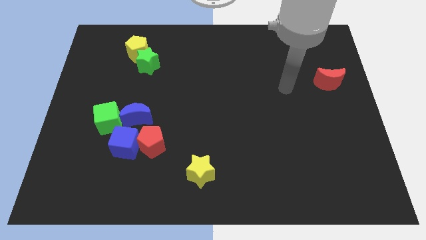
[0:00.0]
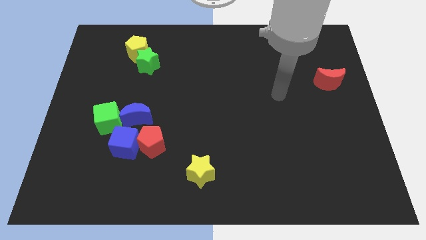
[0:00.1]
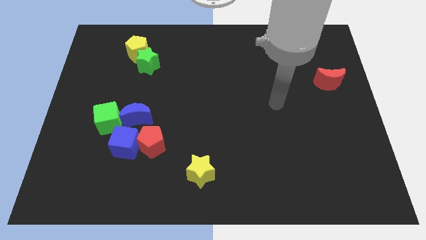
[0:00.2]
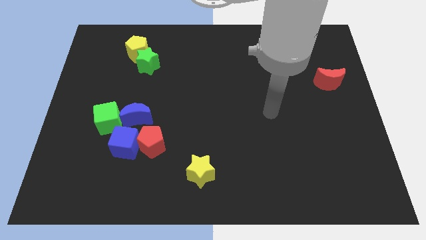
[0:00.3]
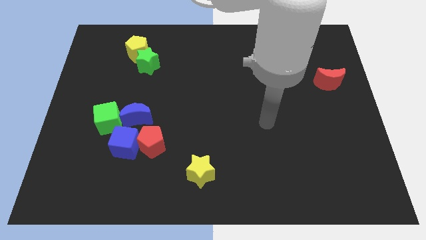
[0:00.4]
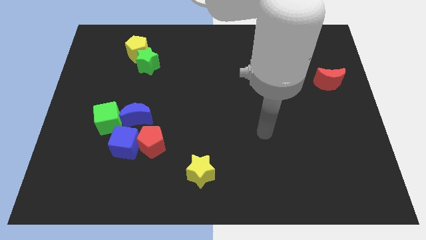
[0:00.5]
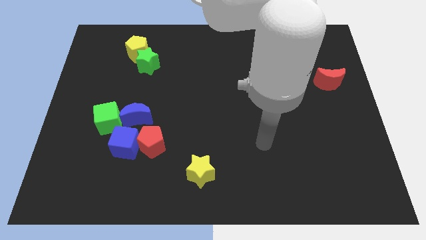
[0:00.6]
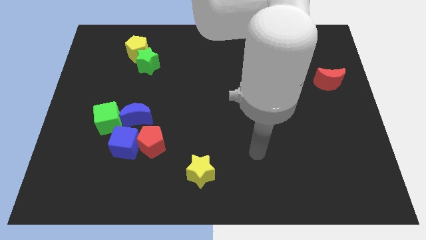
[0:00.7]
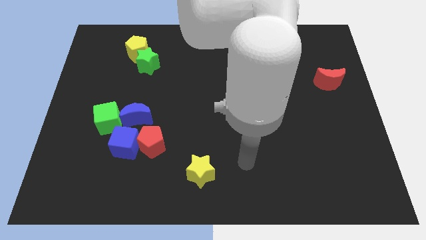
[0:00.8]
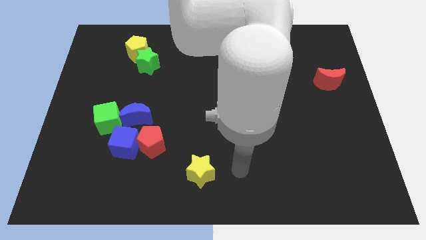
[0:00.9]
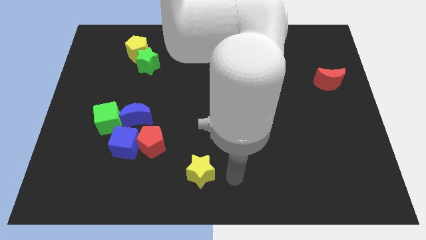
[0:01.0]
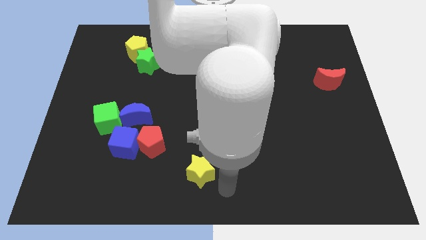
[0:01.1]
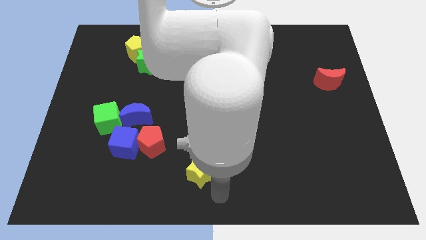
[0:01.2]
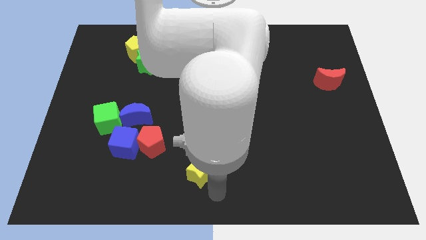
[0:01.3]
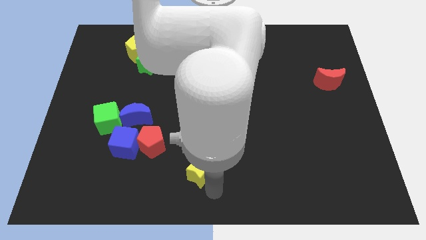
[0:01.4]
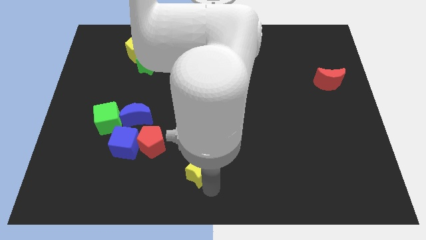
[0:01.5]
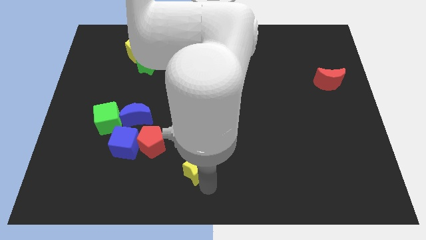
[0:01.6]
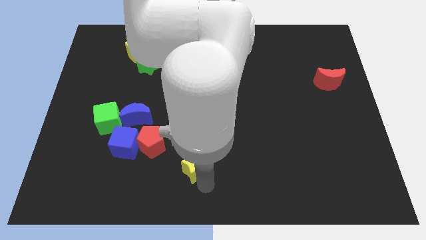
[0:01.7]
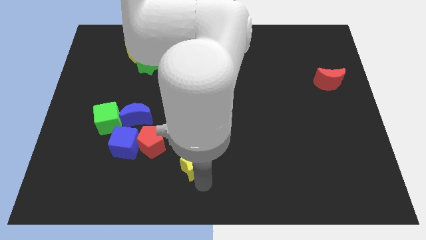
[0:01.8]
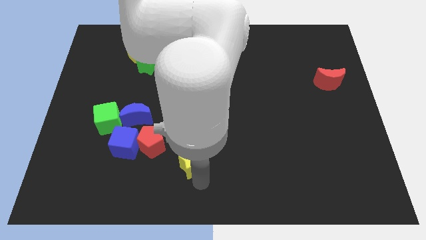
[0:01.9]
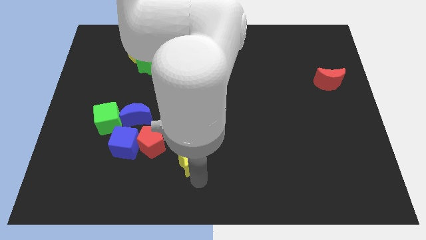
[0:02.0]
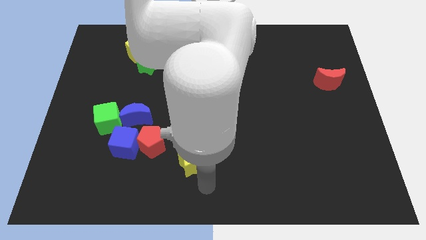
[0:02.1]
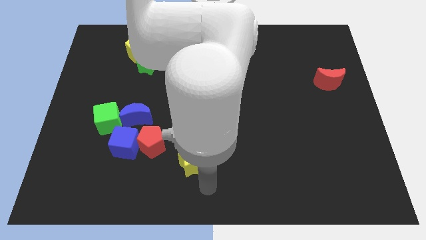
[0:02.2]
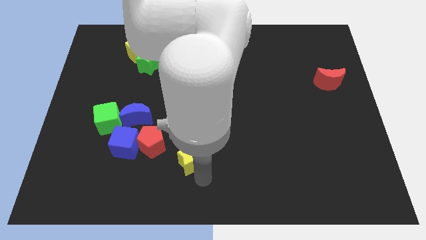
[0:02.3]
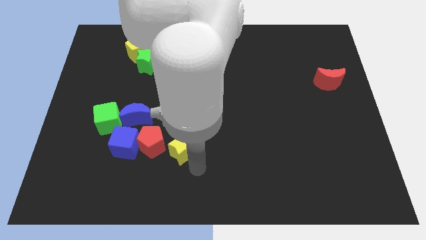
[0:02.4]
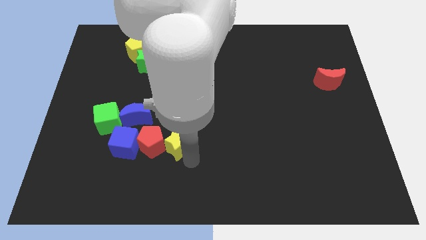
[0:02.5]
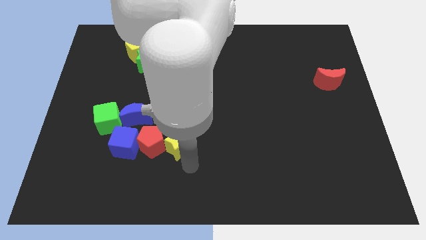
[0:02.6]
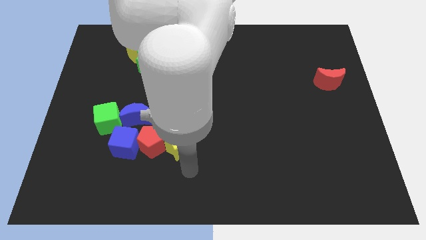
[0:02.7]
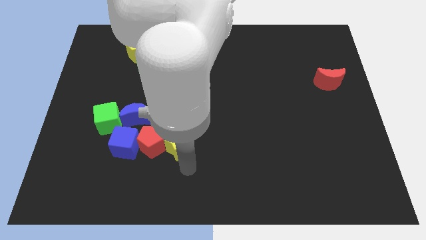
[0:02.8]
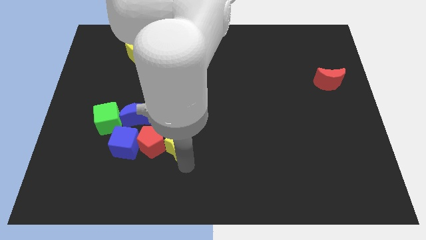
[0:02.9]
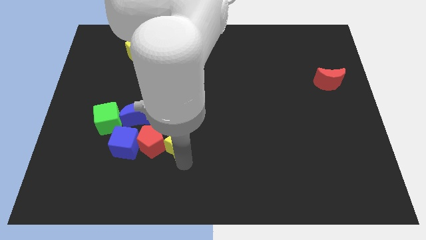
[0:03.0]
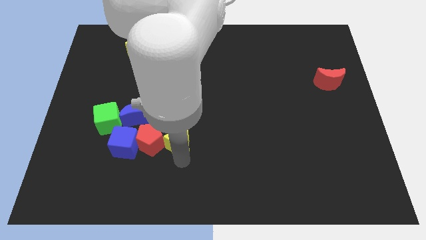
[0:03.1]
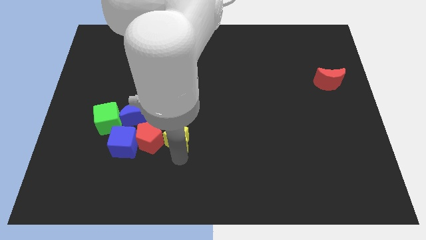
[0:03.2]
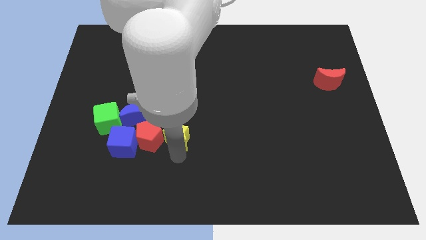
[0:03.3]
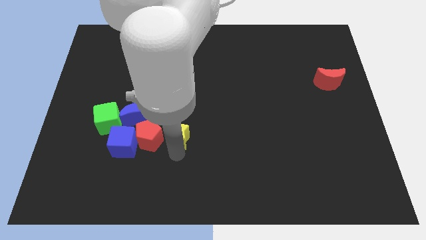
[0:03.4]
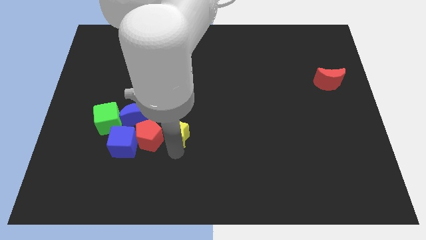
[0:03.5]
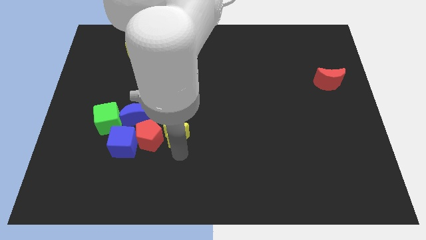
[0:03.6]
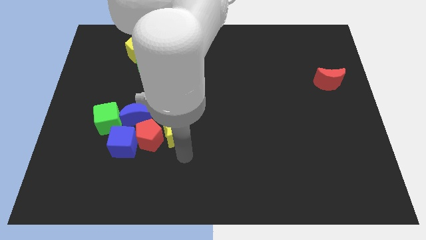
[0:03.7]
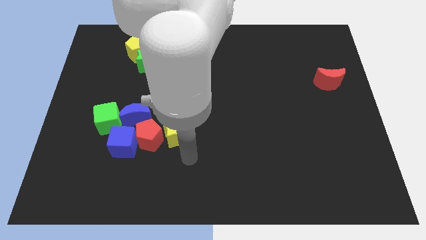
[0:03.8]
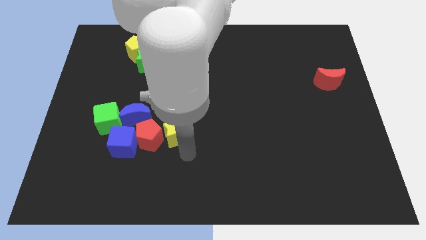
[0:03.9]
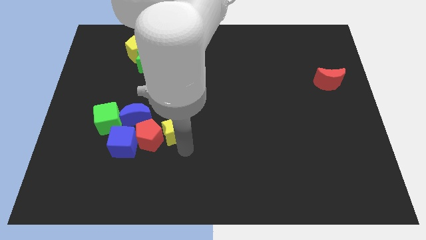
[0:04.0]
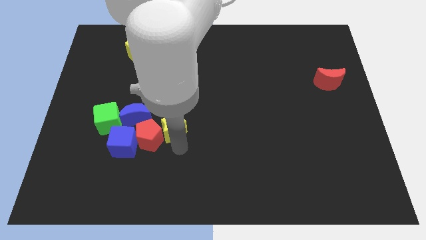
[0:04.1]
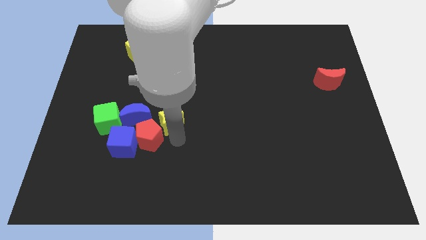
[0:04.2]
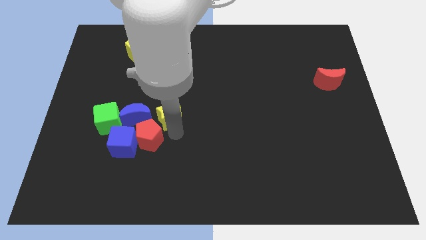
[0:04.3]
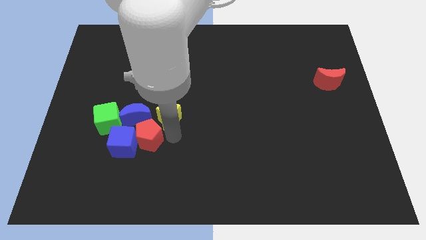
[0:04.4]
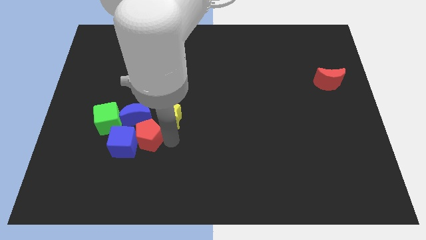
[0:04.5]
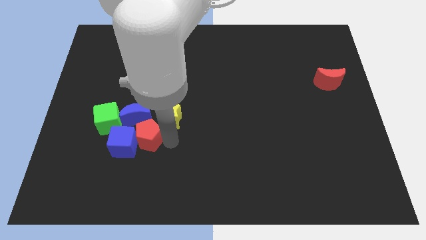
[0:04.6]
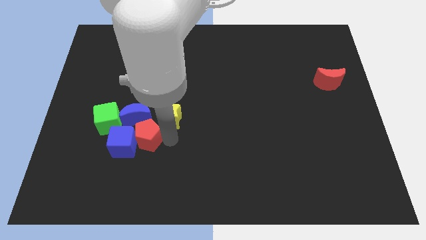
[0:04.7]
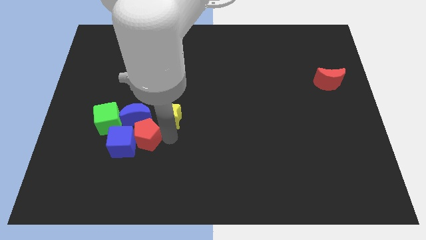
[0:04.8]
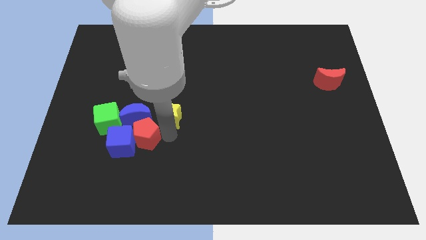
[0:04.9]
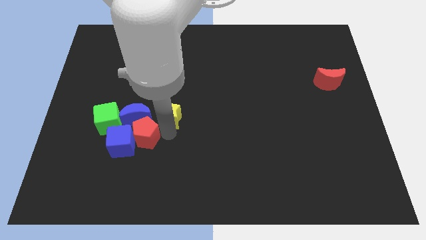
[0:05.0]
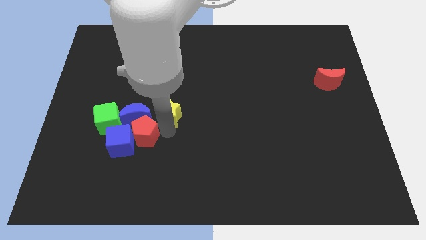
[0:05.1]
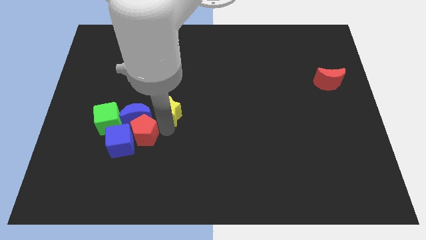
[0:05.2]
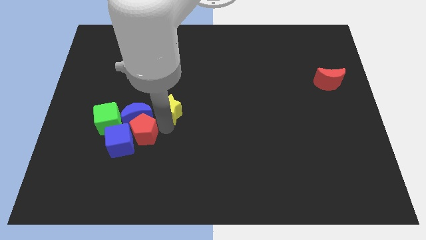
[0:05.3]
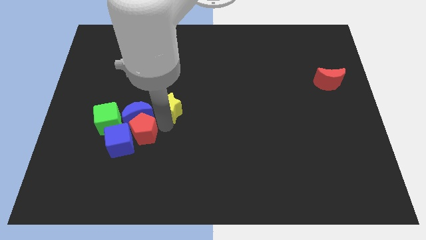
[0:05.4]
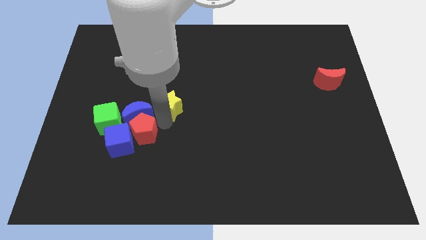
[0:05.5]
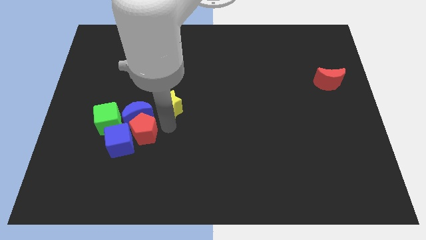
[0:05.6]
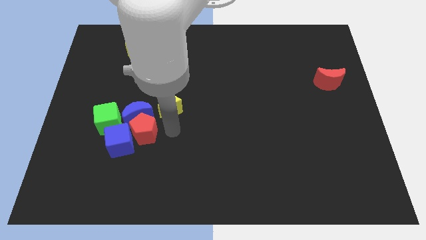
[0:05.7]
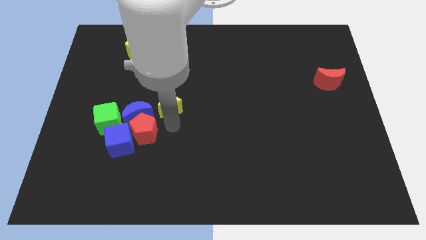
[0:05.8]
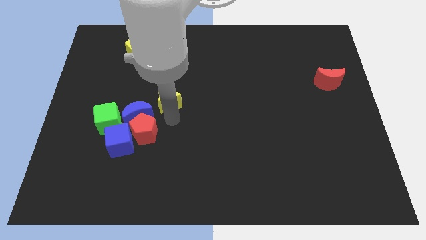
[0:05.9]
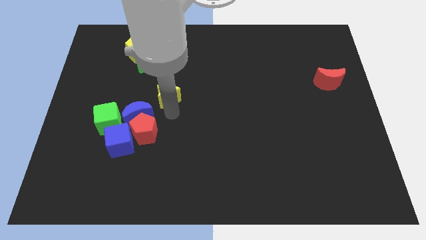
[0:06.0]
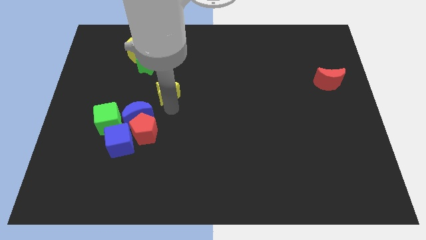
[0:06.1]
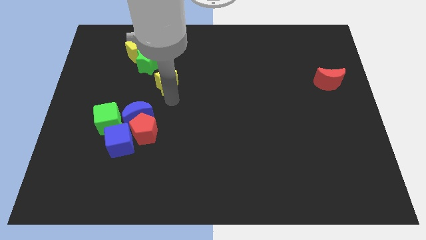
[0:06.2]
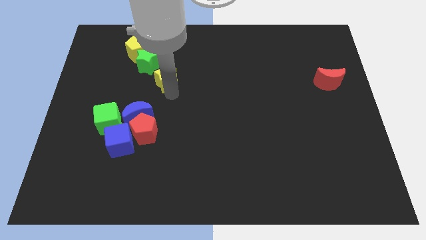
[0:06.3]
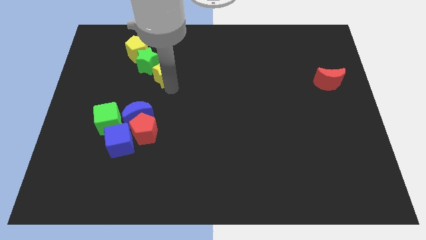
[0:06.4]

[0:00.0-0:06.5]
move the yellow star to the bottom right side of the yellow pentagon
